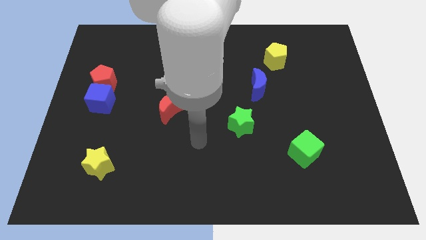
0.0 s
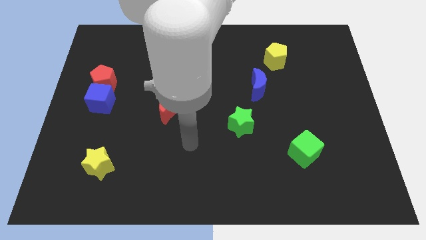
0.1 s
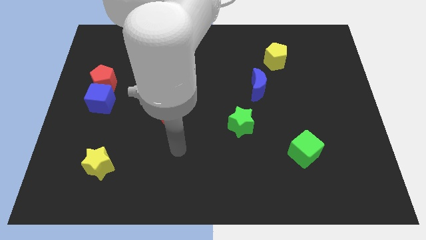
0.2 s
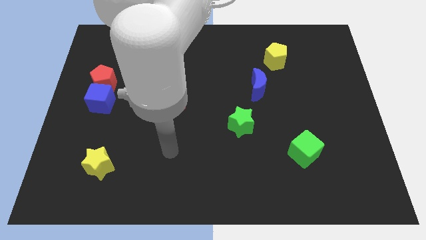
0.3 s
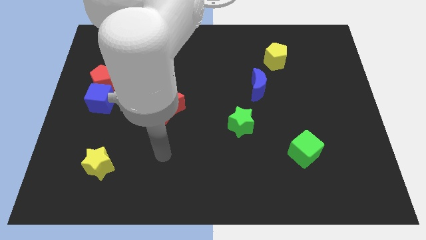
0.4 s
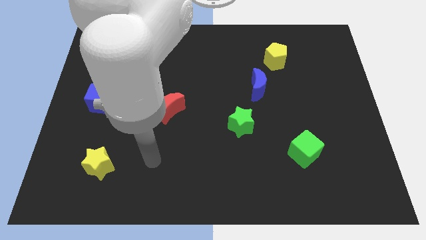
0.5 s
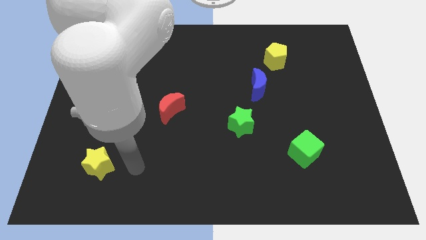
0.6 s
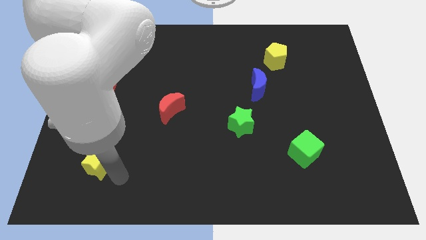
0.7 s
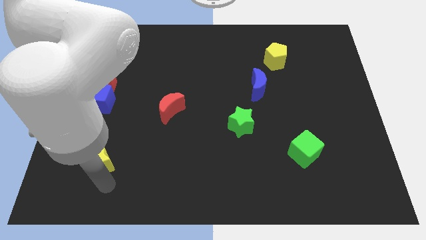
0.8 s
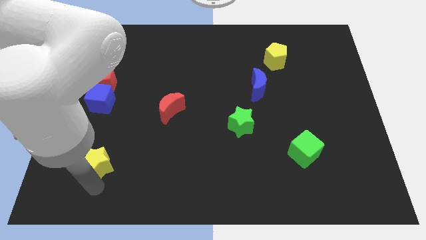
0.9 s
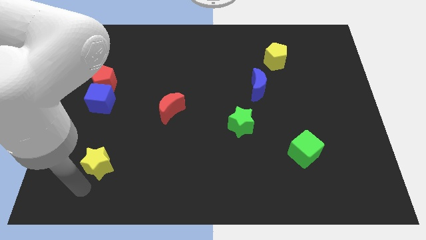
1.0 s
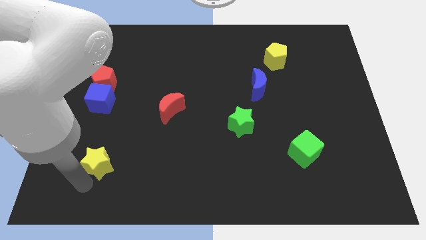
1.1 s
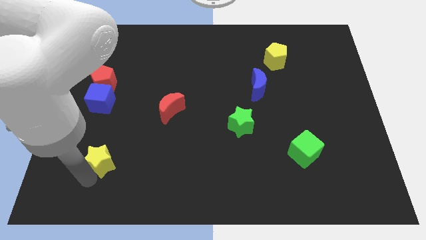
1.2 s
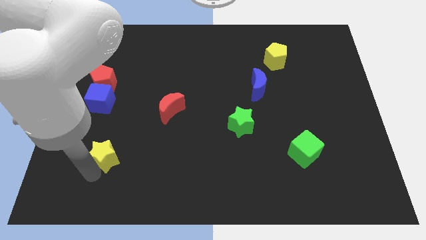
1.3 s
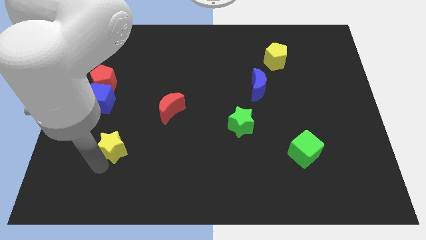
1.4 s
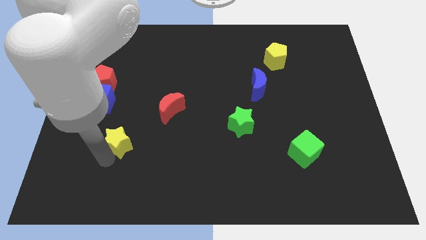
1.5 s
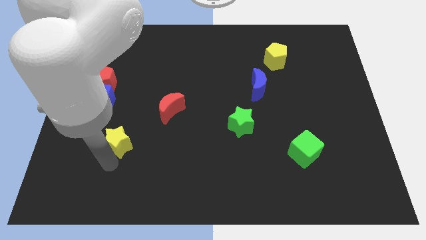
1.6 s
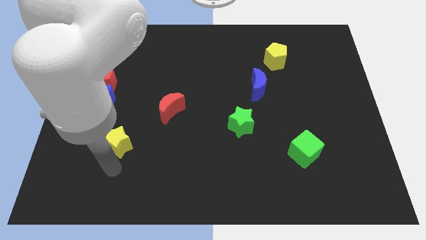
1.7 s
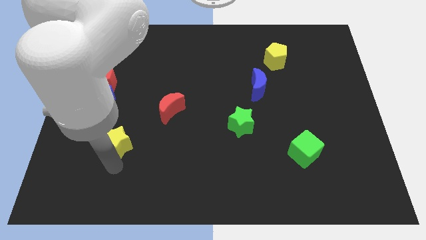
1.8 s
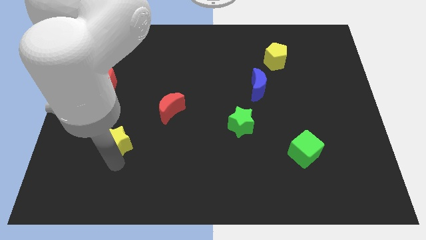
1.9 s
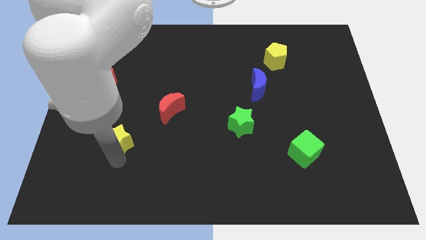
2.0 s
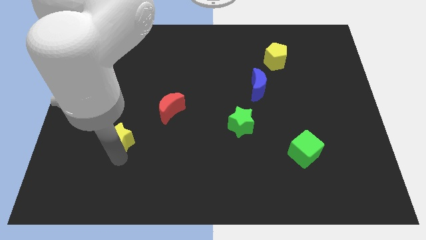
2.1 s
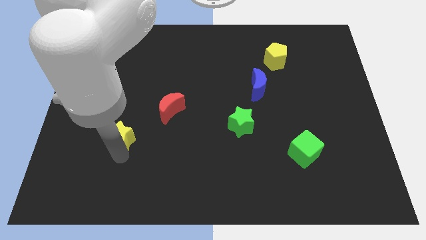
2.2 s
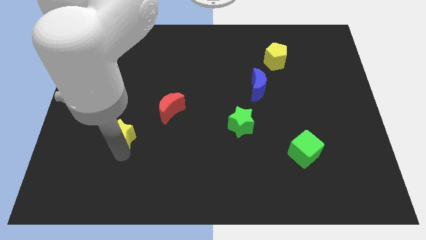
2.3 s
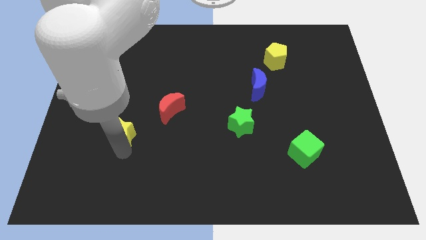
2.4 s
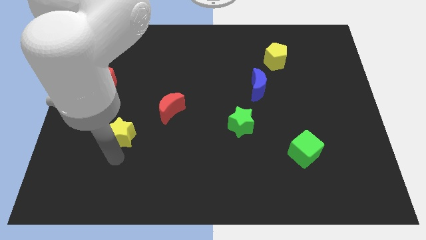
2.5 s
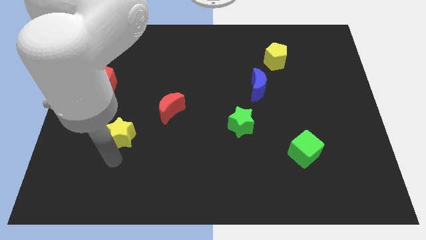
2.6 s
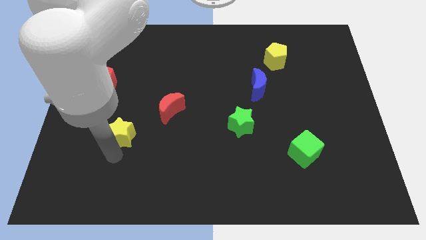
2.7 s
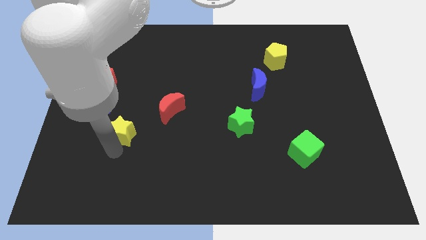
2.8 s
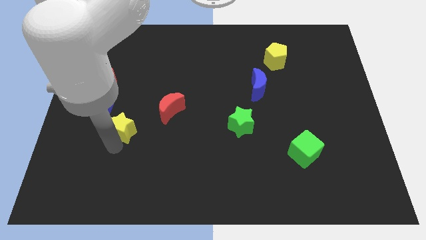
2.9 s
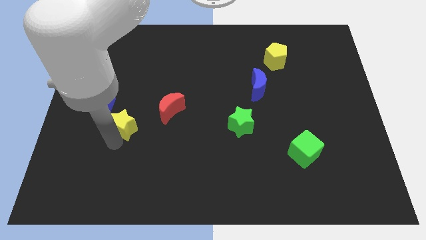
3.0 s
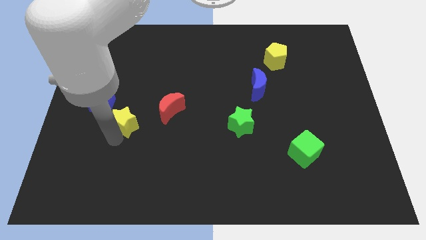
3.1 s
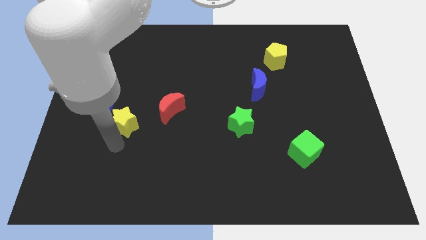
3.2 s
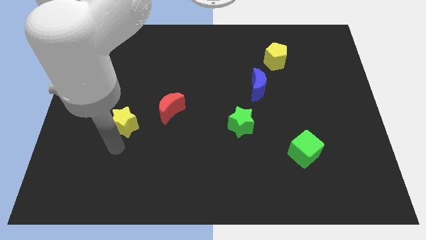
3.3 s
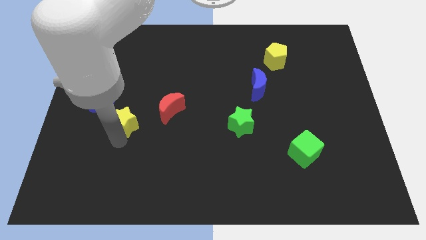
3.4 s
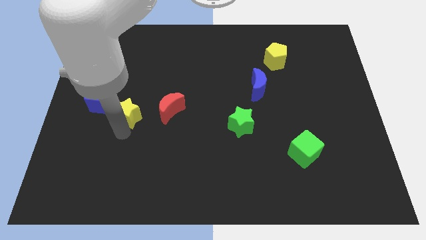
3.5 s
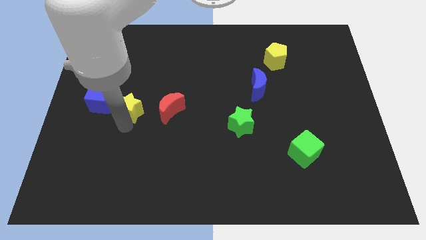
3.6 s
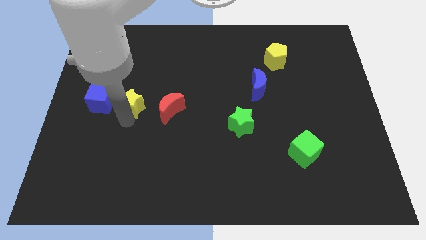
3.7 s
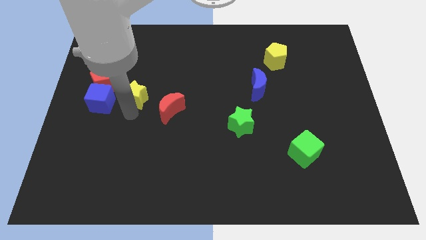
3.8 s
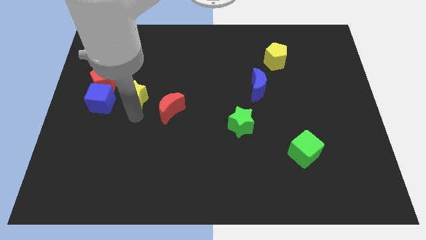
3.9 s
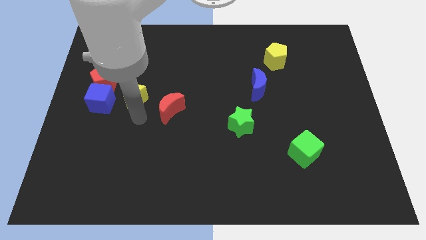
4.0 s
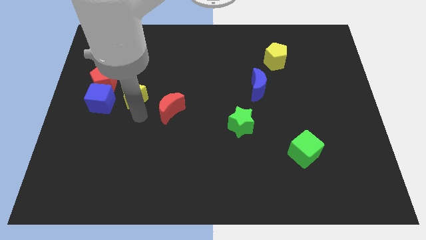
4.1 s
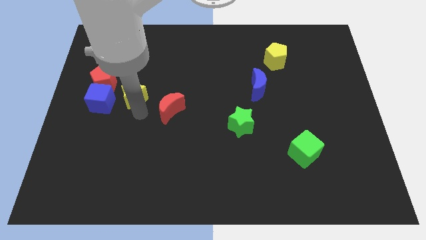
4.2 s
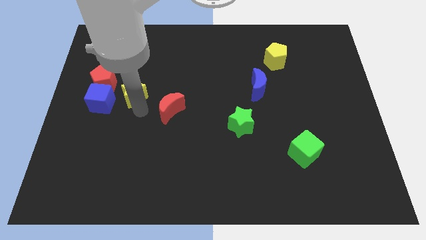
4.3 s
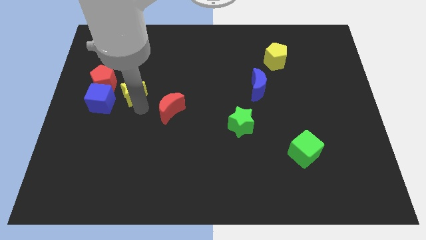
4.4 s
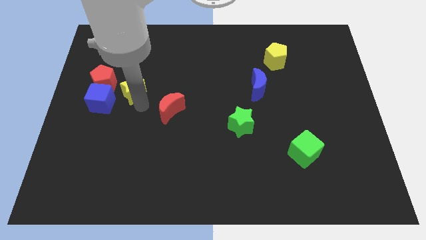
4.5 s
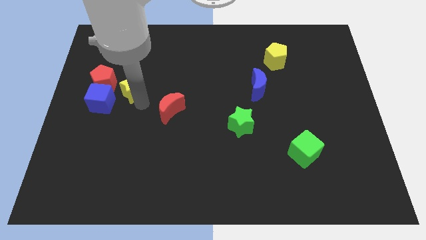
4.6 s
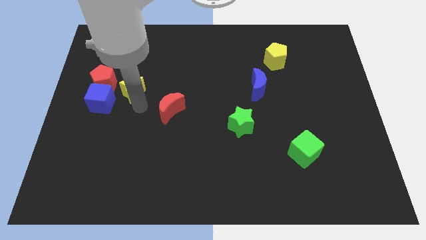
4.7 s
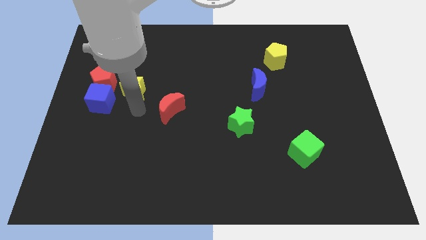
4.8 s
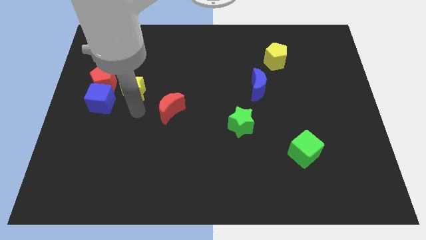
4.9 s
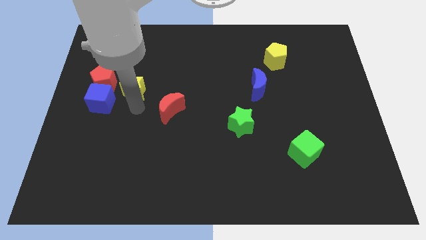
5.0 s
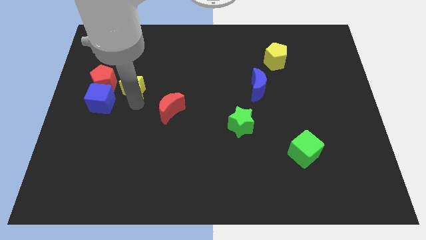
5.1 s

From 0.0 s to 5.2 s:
move the yellow star up

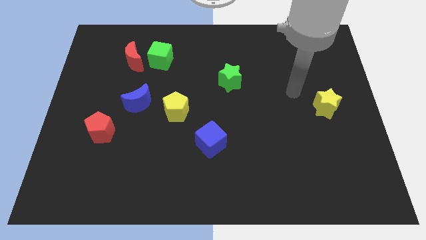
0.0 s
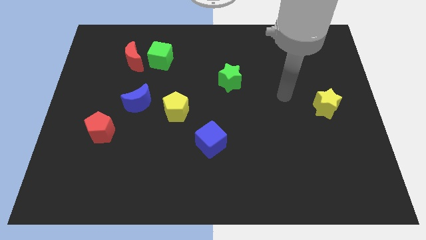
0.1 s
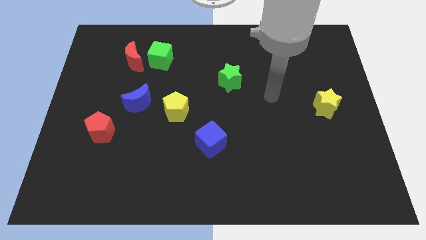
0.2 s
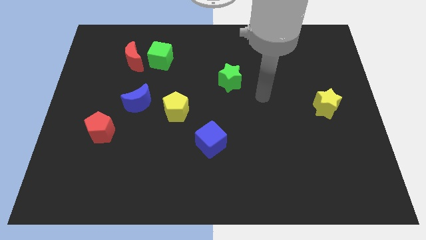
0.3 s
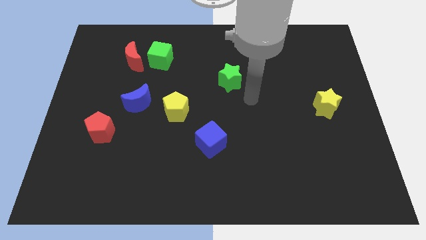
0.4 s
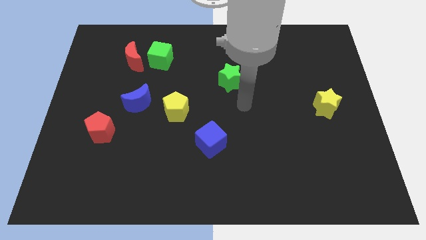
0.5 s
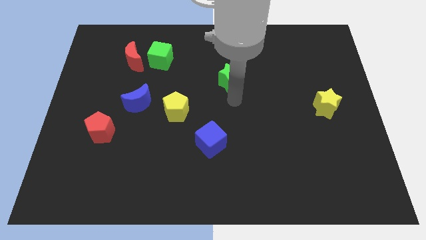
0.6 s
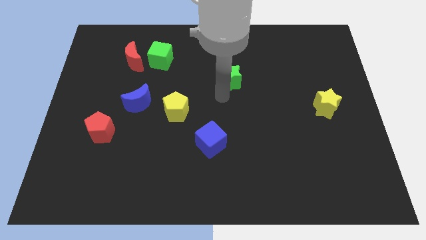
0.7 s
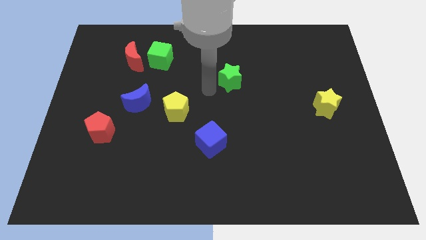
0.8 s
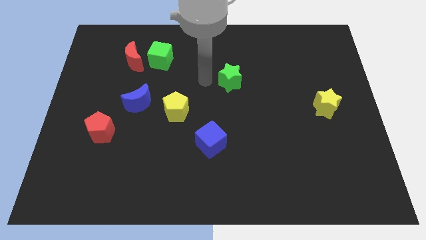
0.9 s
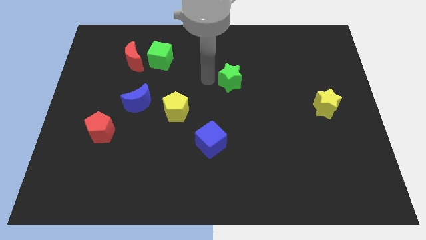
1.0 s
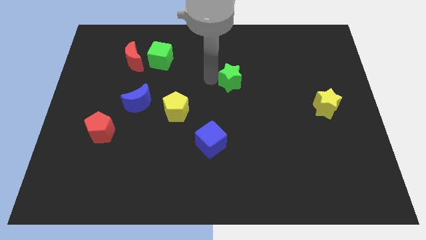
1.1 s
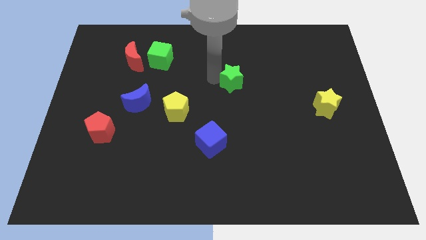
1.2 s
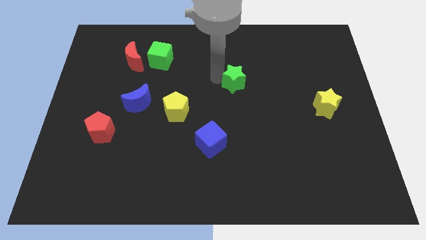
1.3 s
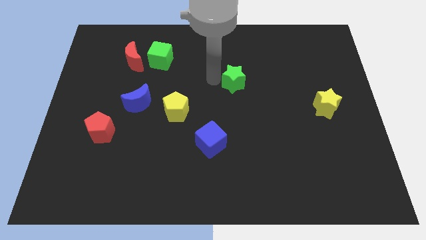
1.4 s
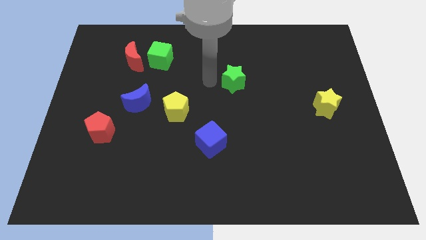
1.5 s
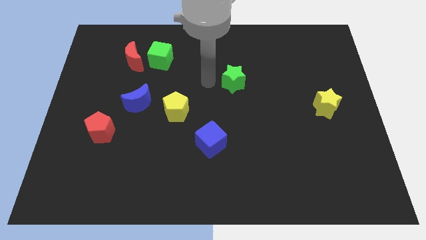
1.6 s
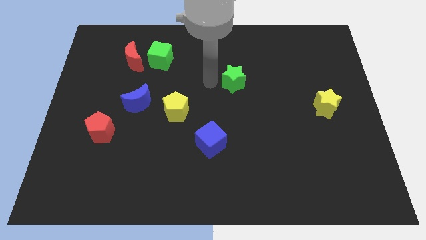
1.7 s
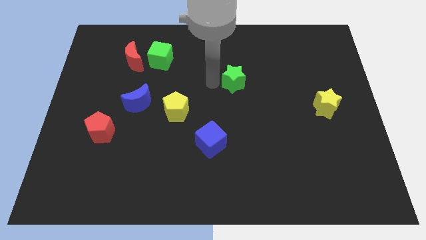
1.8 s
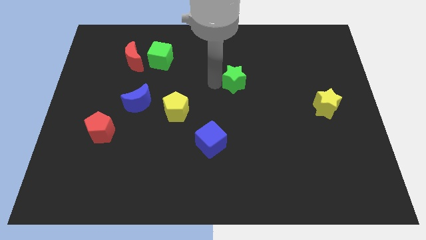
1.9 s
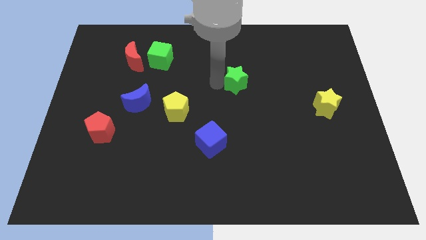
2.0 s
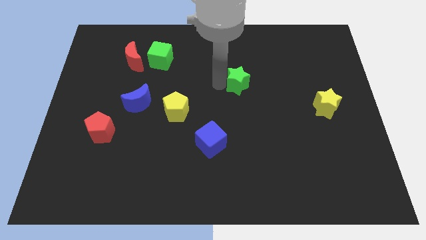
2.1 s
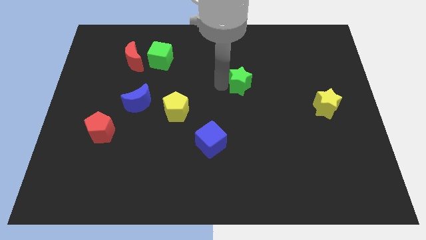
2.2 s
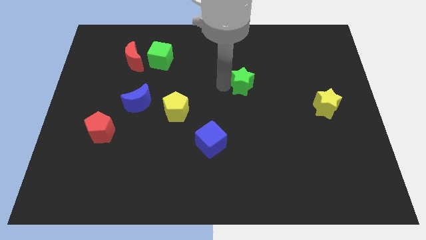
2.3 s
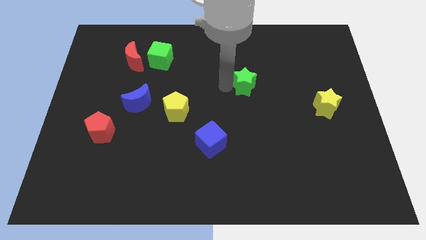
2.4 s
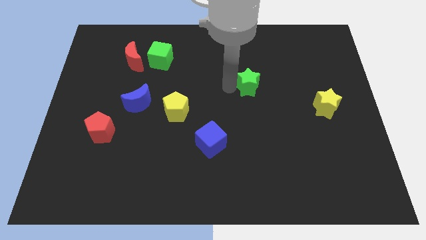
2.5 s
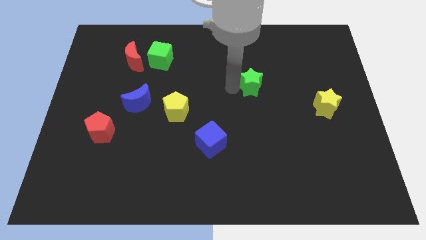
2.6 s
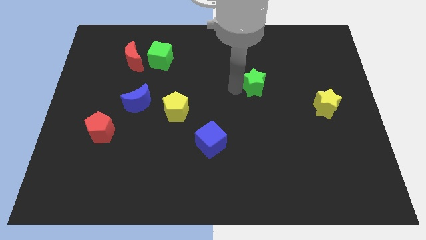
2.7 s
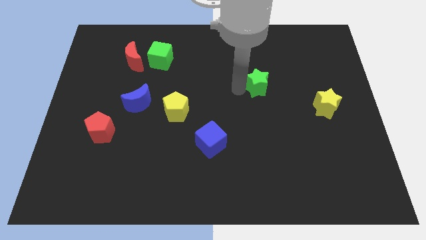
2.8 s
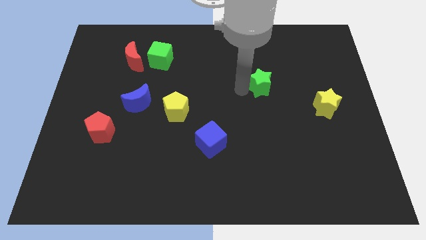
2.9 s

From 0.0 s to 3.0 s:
push the green star right slightly

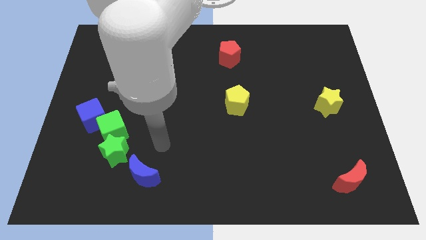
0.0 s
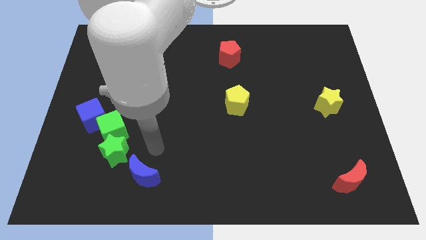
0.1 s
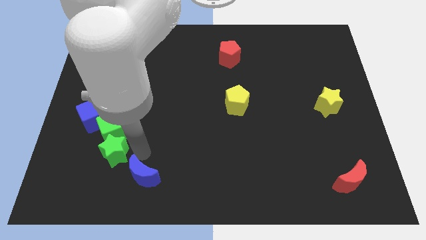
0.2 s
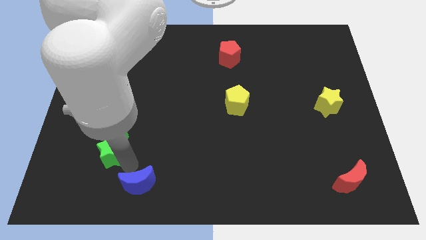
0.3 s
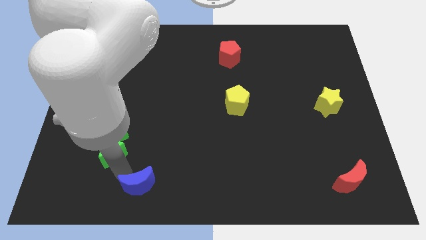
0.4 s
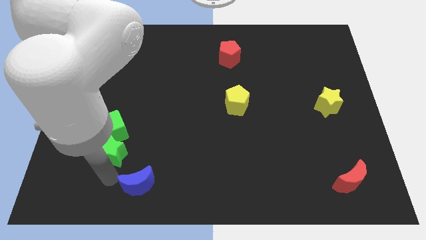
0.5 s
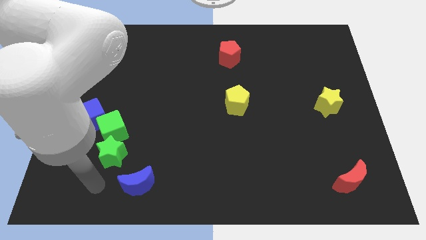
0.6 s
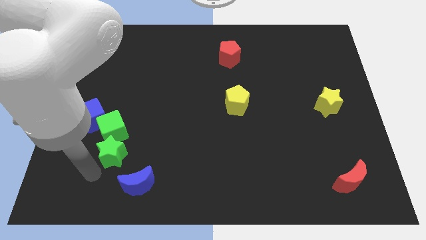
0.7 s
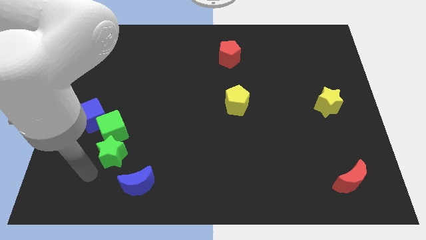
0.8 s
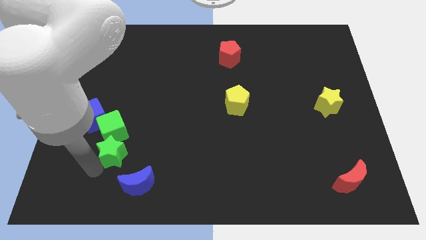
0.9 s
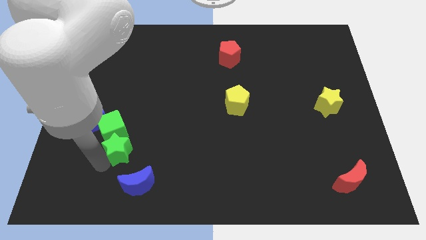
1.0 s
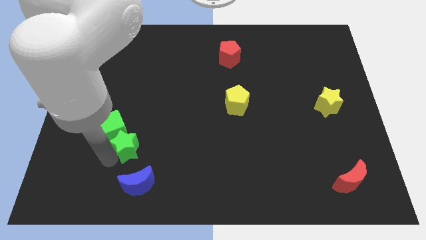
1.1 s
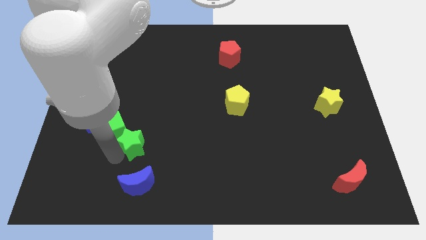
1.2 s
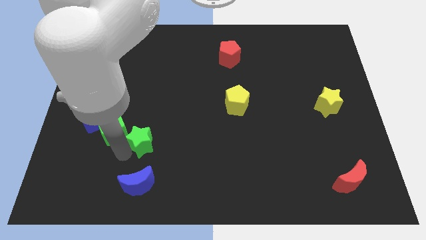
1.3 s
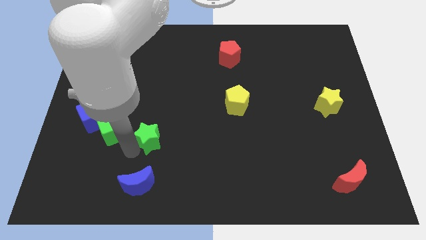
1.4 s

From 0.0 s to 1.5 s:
slightly push the green star up and to the right
